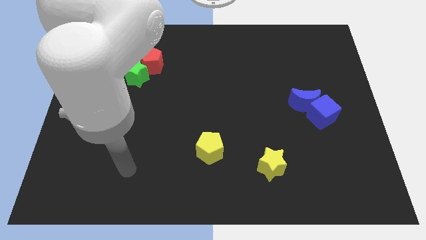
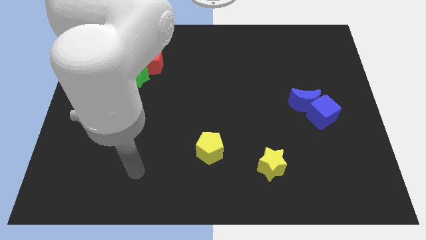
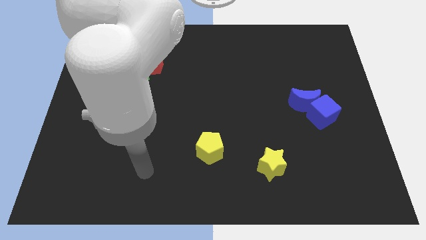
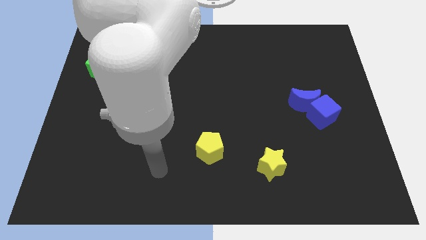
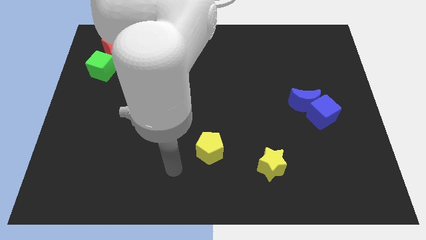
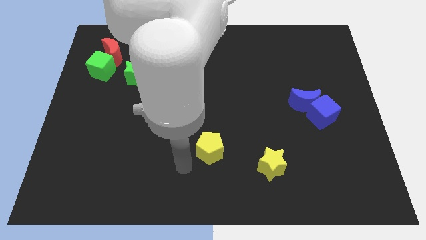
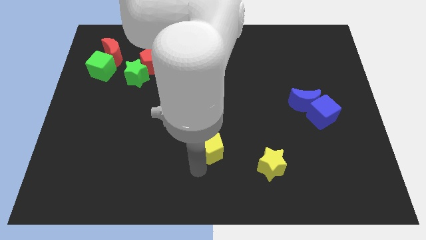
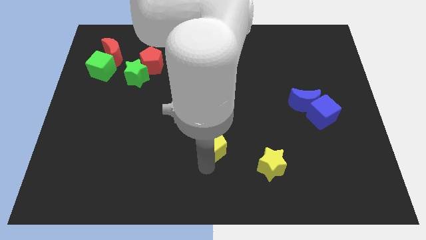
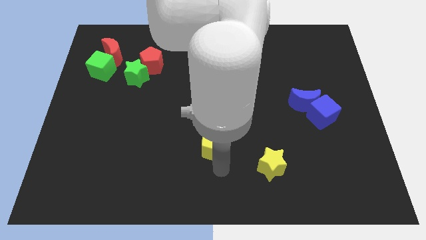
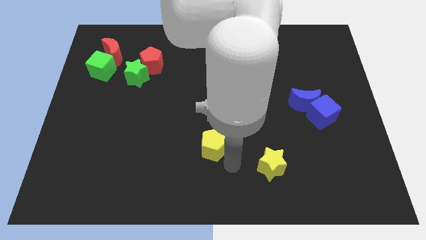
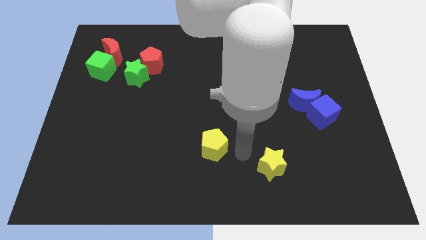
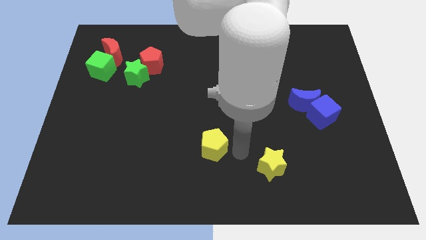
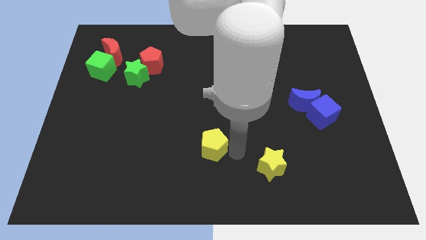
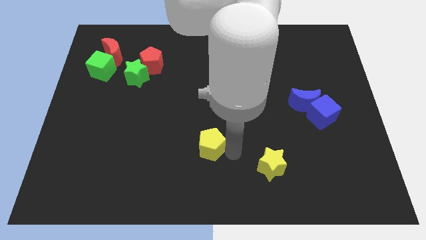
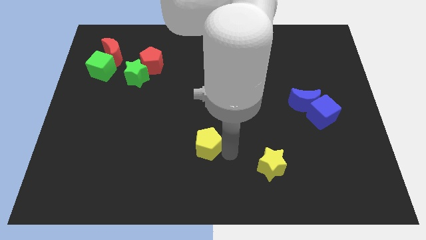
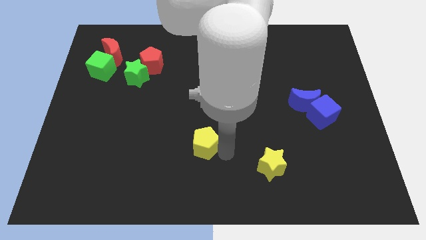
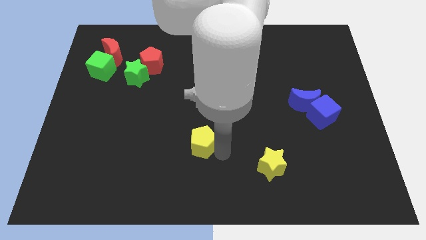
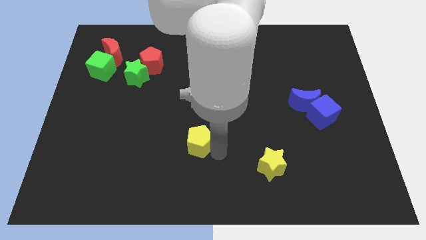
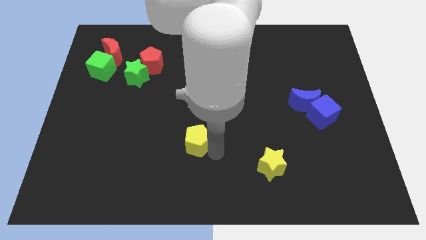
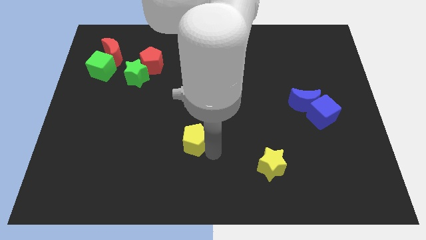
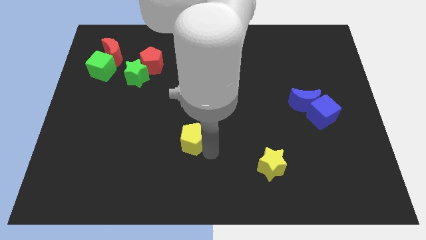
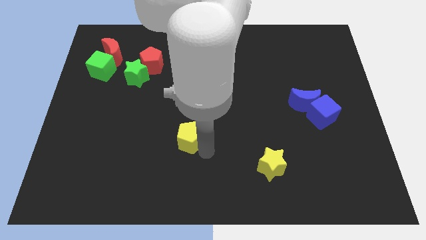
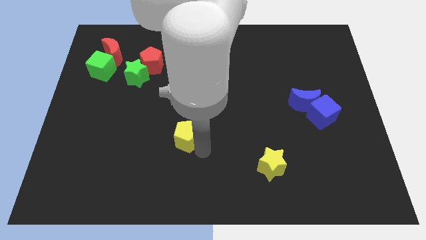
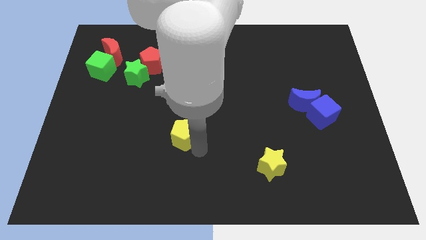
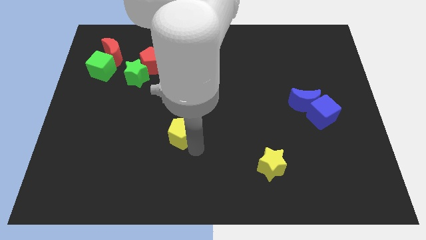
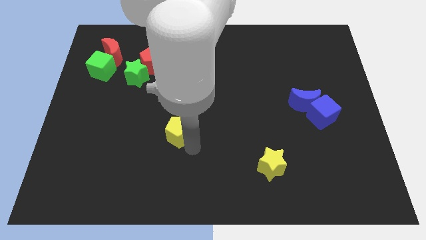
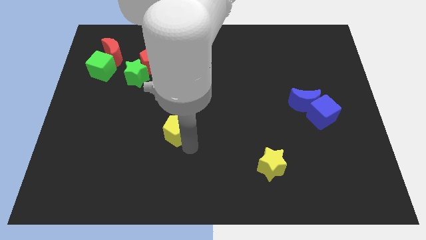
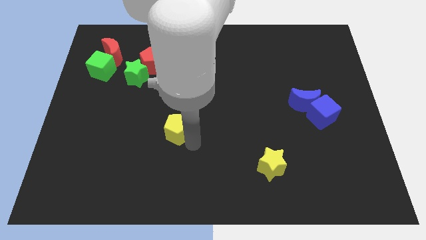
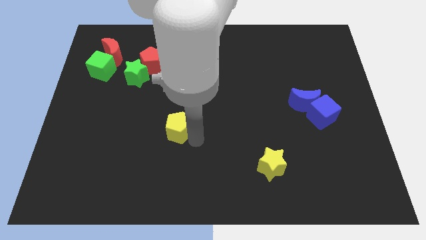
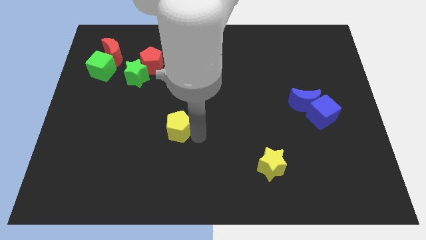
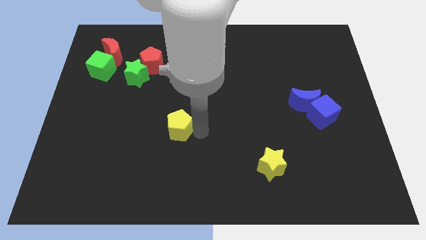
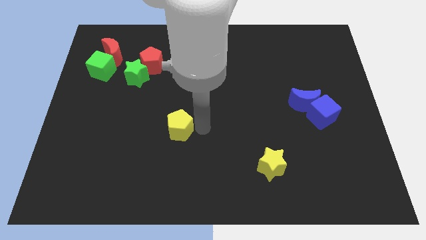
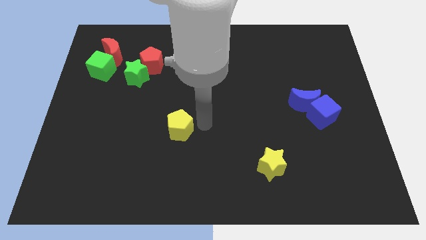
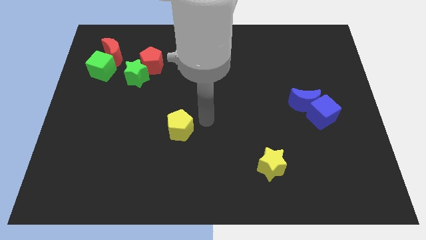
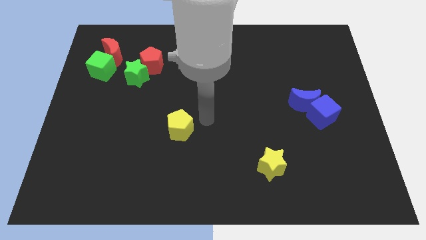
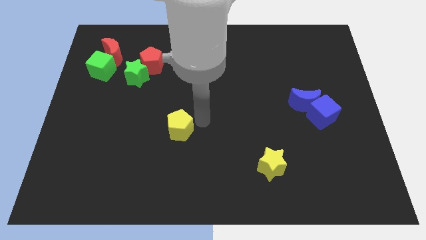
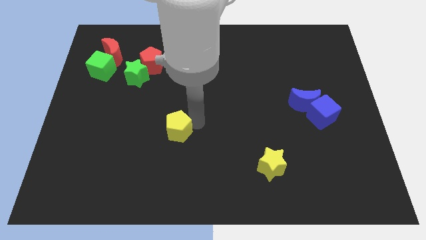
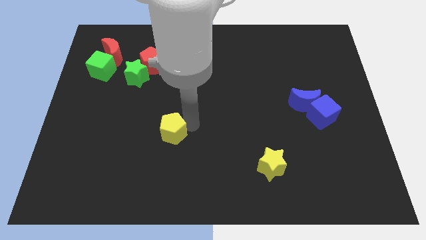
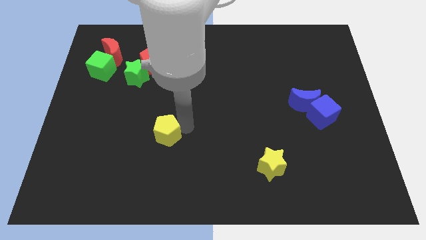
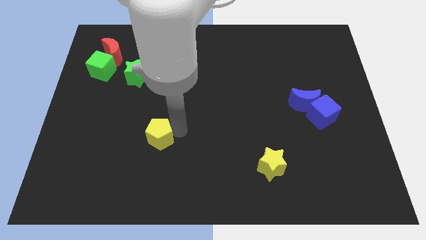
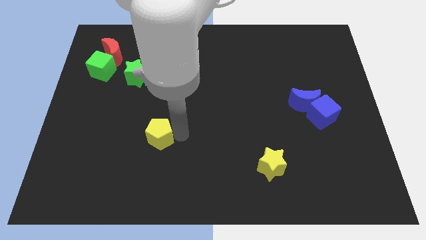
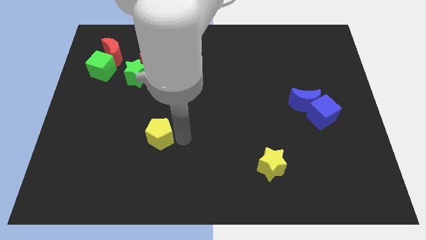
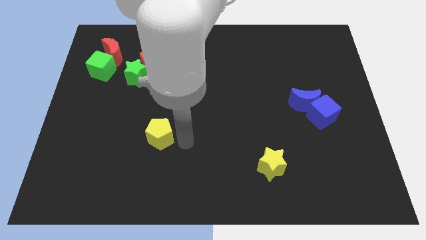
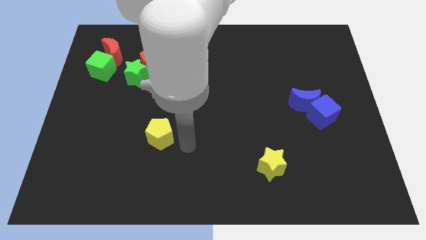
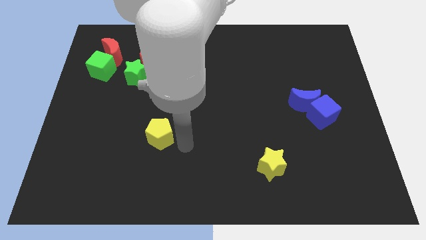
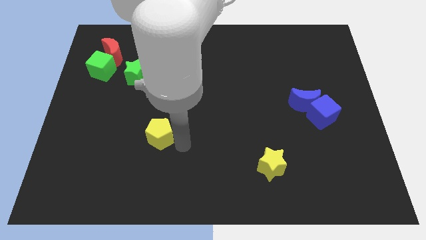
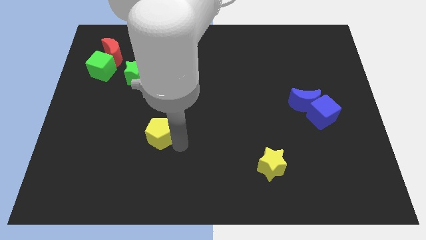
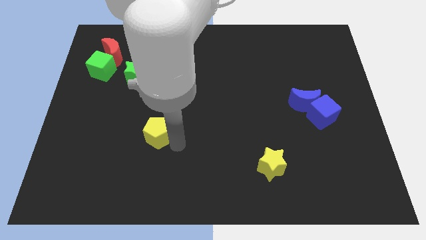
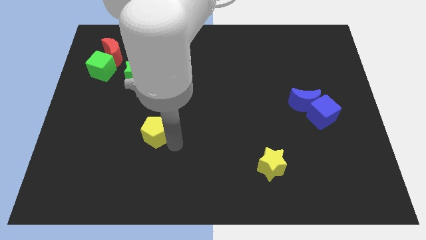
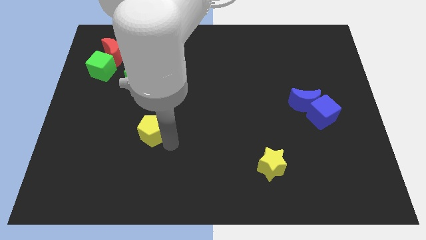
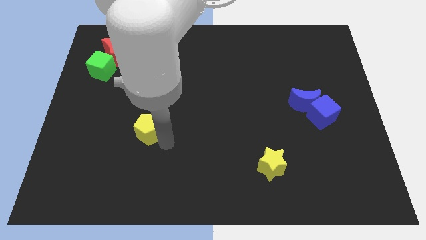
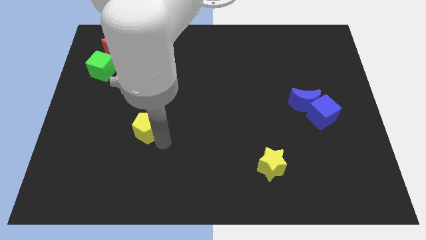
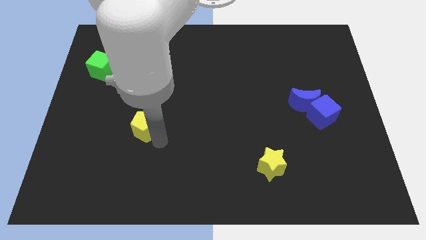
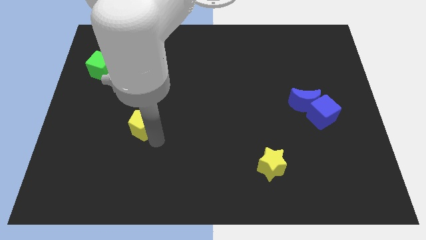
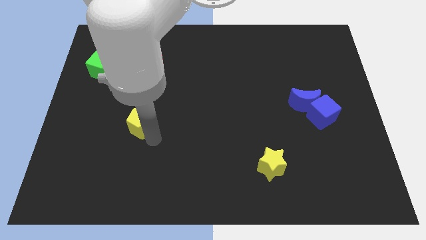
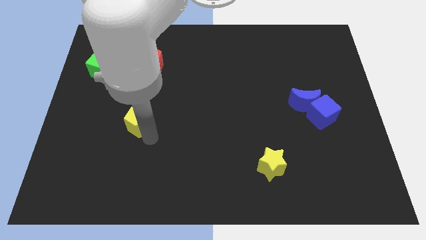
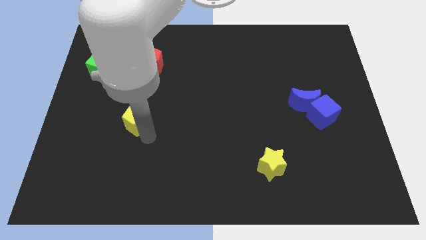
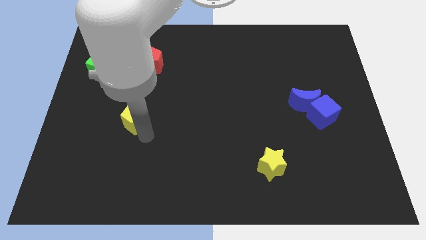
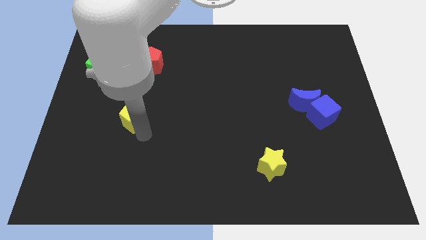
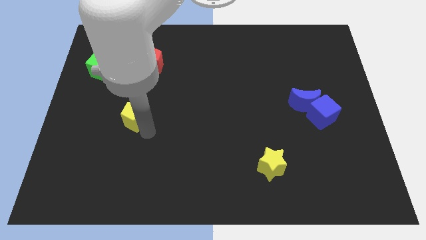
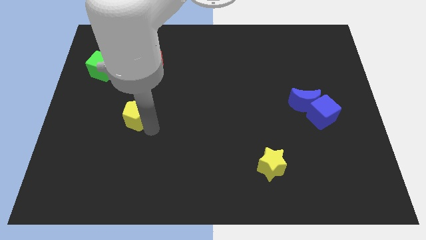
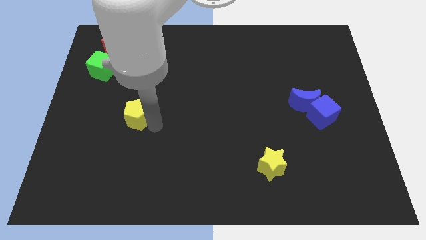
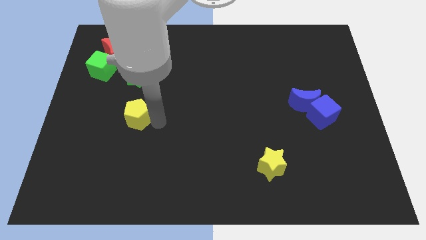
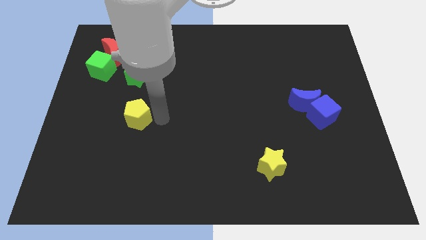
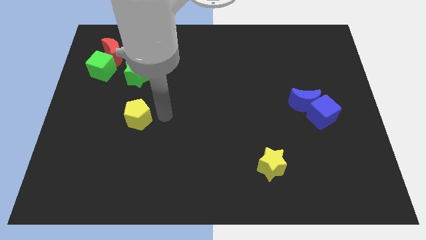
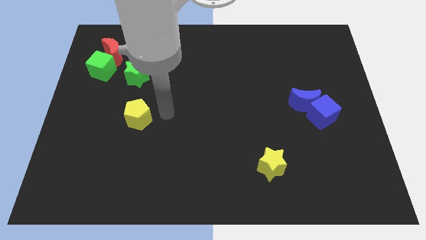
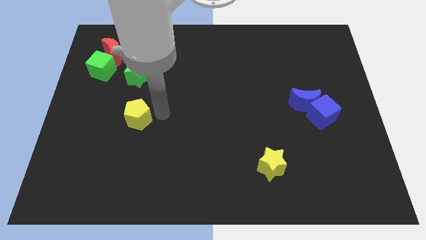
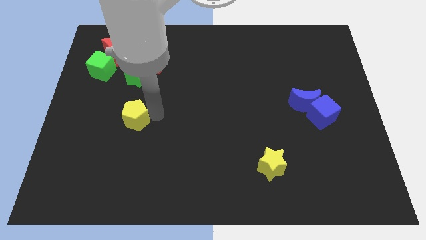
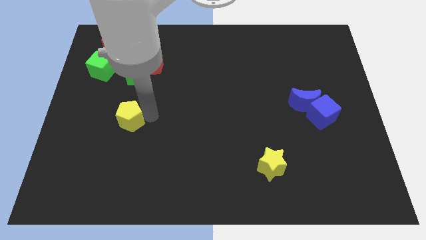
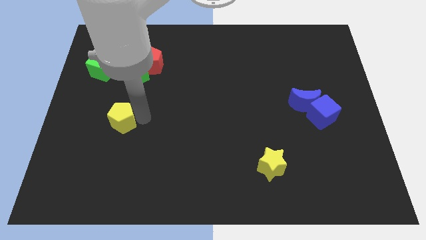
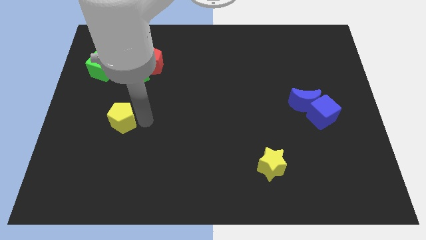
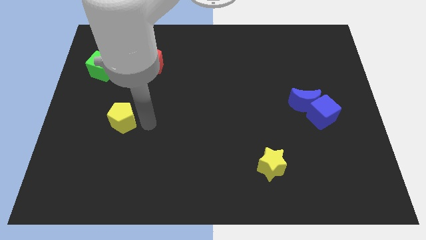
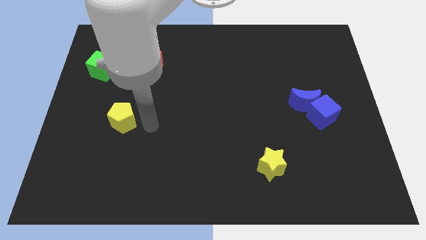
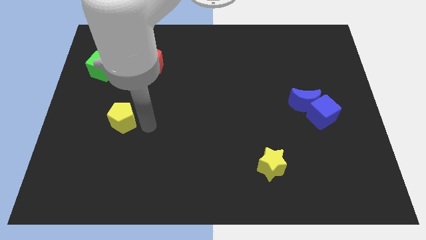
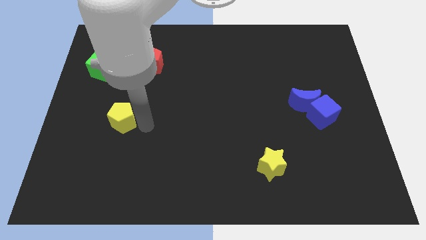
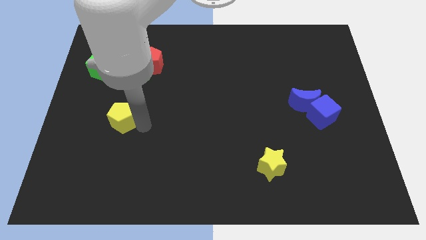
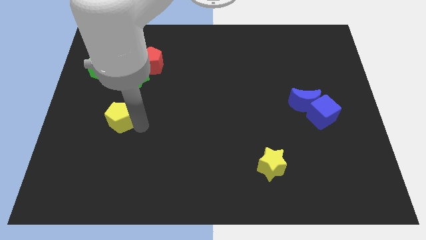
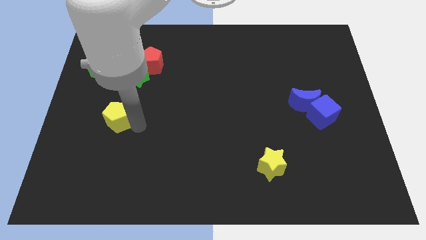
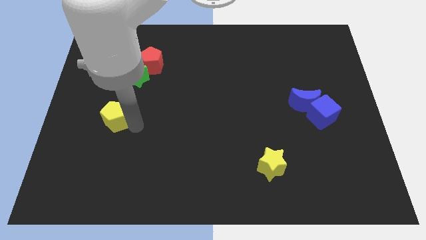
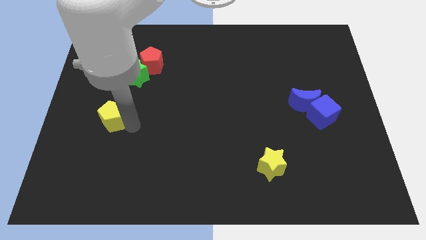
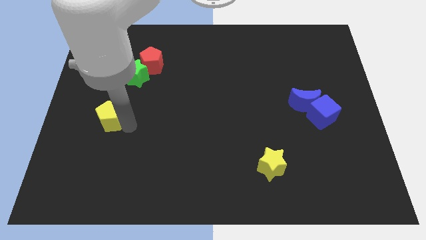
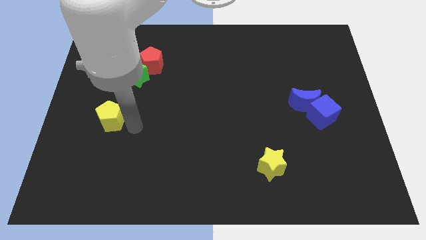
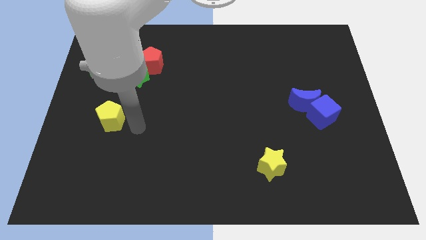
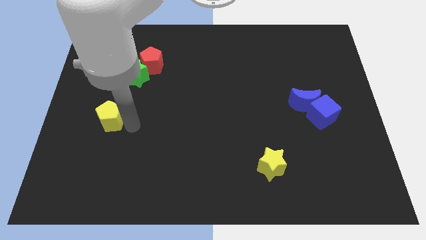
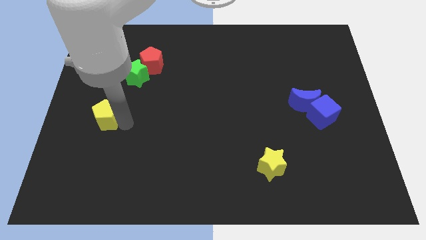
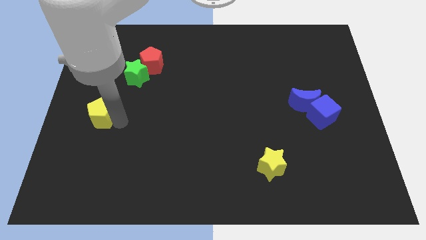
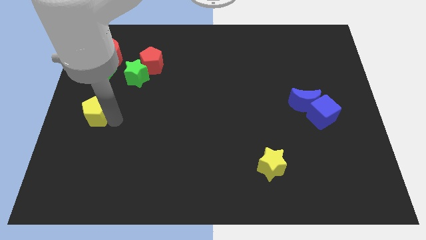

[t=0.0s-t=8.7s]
put the yellow pentagon to the left side of the board
